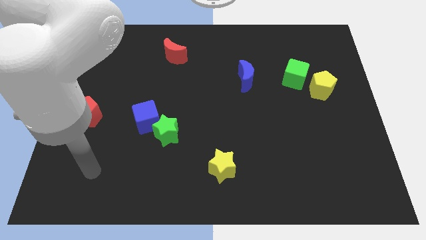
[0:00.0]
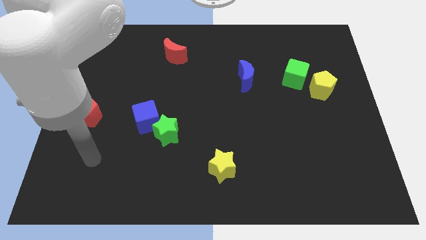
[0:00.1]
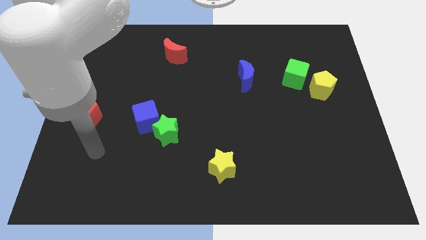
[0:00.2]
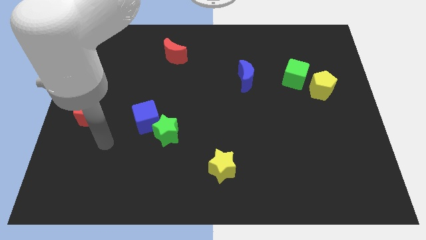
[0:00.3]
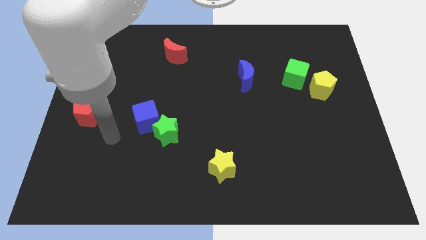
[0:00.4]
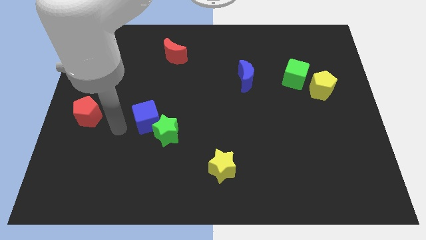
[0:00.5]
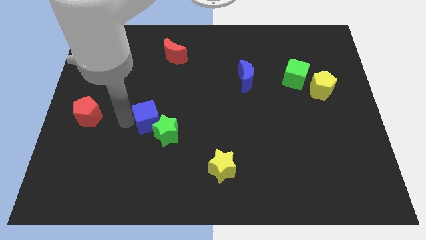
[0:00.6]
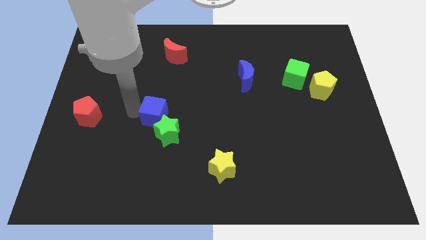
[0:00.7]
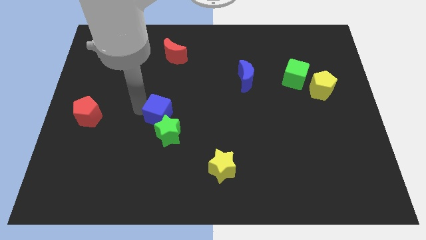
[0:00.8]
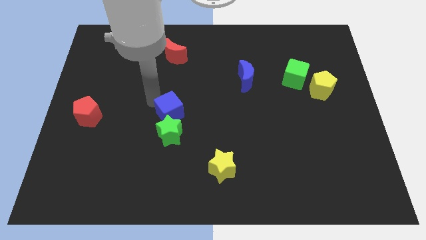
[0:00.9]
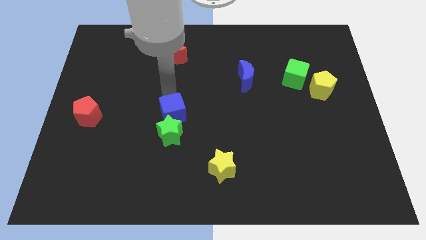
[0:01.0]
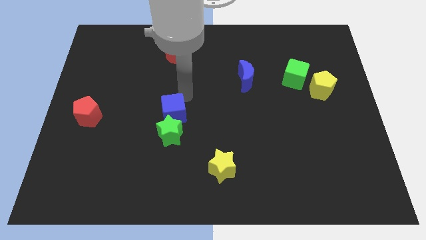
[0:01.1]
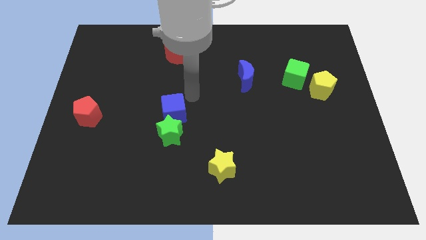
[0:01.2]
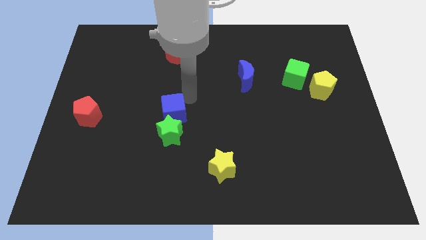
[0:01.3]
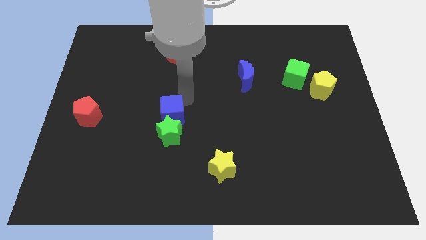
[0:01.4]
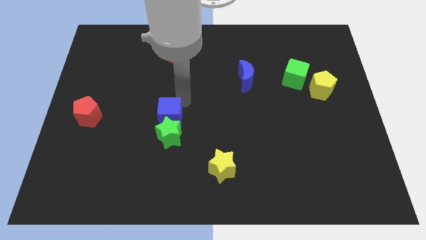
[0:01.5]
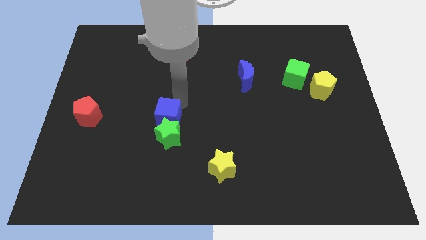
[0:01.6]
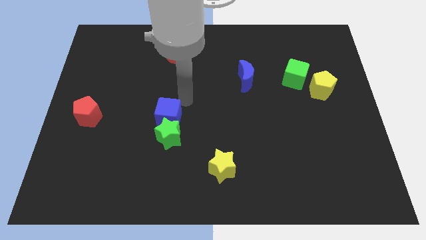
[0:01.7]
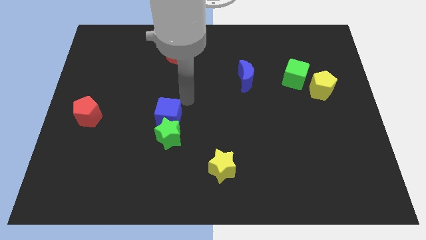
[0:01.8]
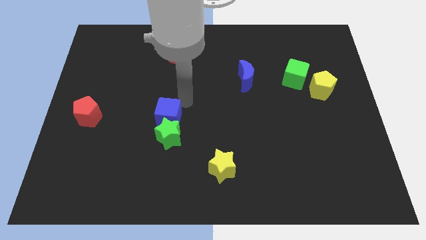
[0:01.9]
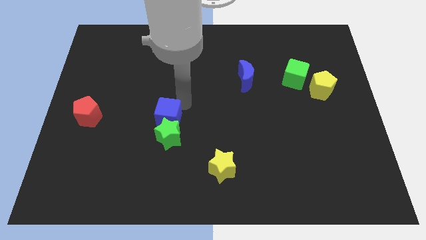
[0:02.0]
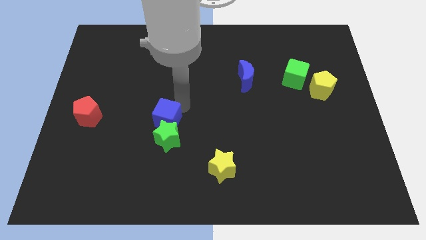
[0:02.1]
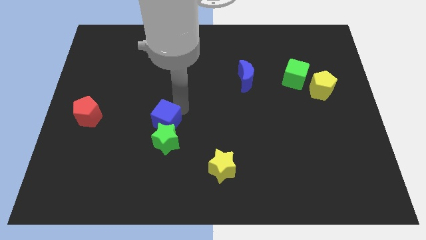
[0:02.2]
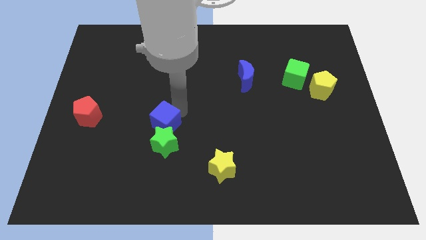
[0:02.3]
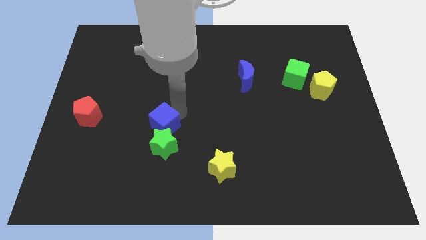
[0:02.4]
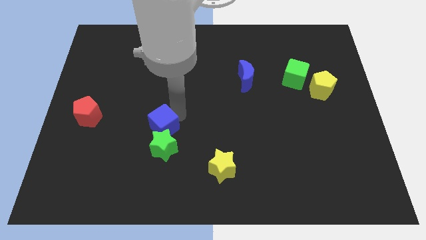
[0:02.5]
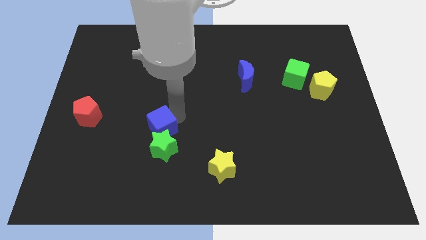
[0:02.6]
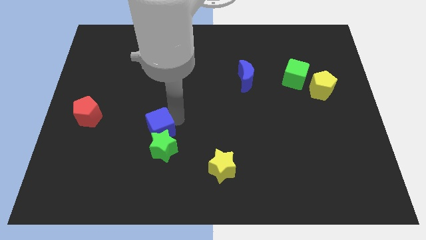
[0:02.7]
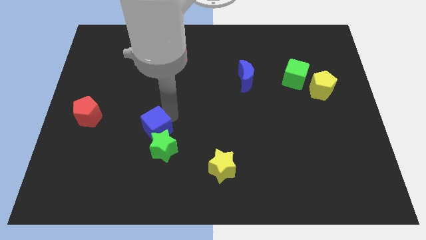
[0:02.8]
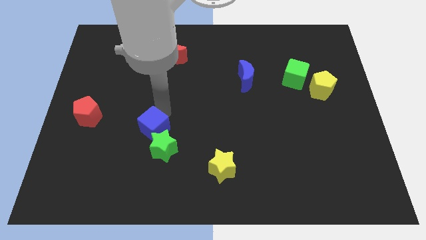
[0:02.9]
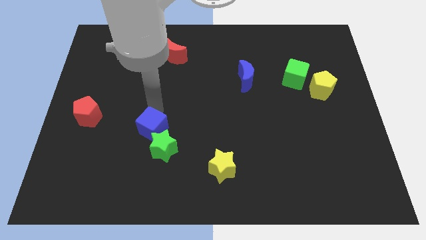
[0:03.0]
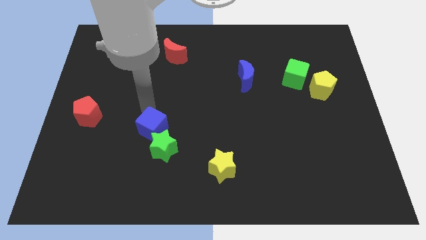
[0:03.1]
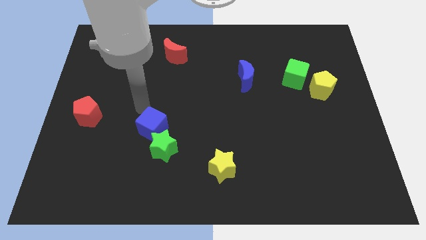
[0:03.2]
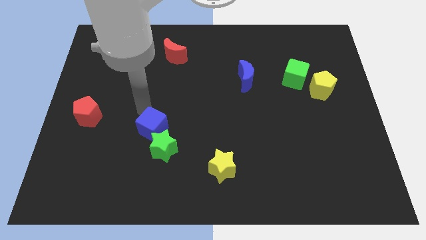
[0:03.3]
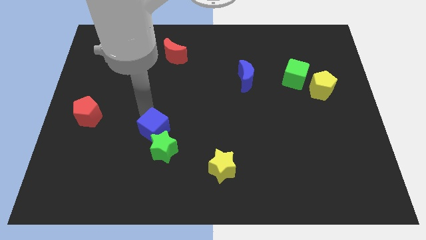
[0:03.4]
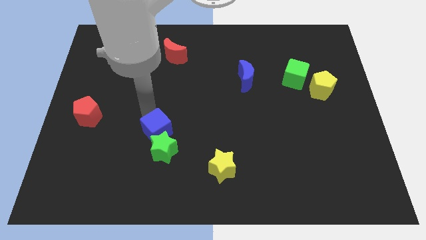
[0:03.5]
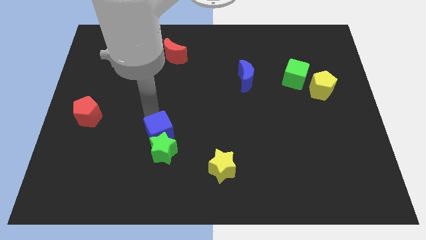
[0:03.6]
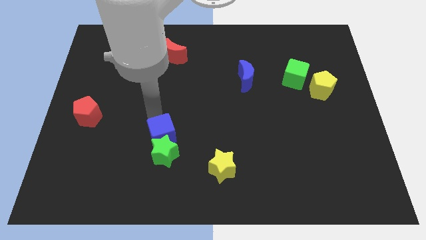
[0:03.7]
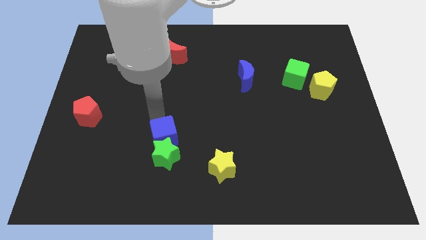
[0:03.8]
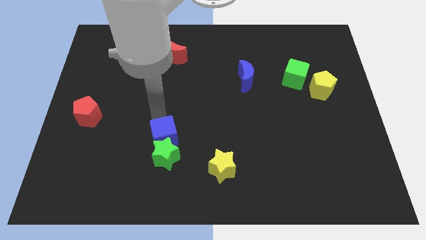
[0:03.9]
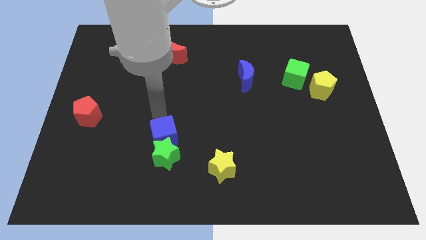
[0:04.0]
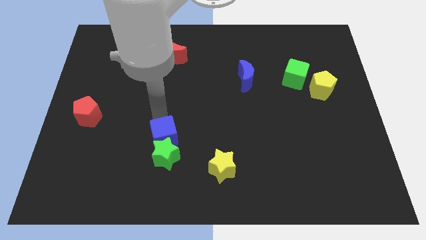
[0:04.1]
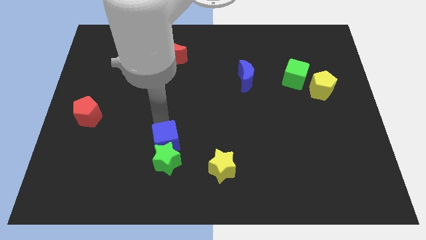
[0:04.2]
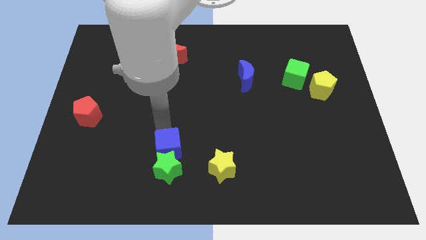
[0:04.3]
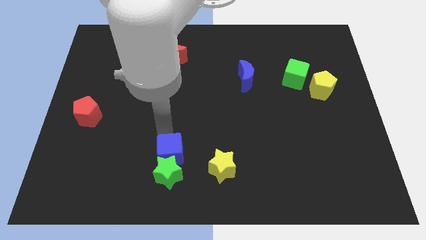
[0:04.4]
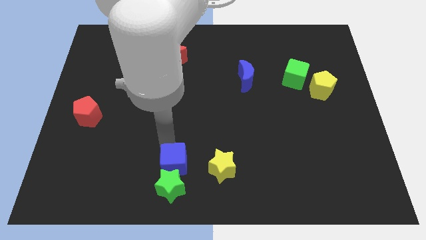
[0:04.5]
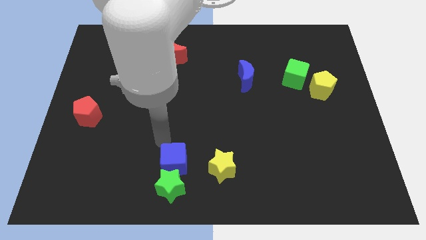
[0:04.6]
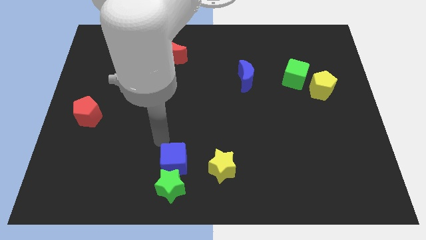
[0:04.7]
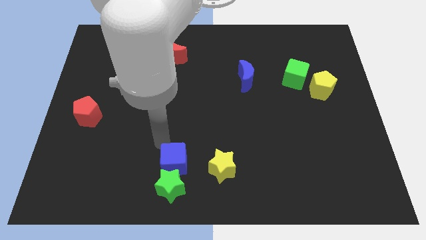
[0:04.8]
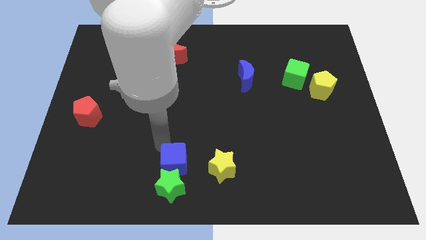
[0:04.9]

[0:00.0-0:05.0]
put the blue cube to the bottom

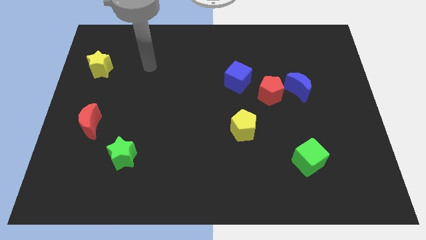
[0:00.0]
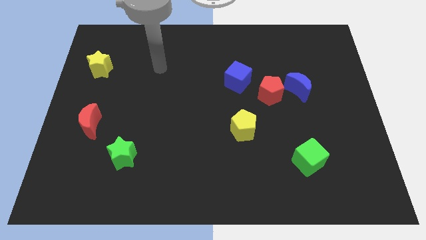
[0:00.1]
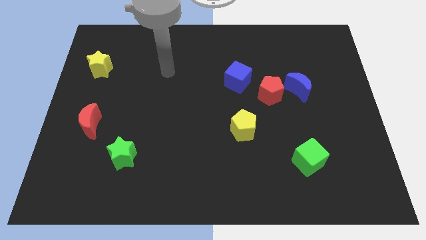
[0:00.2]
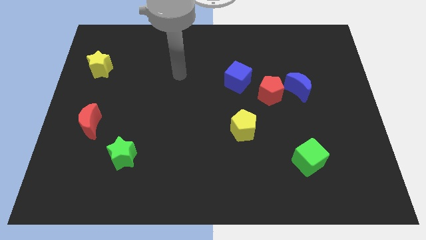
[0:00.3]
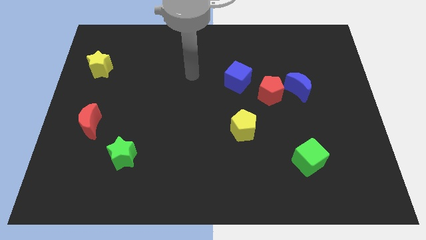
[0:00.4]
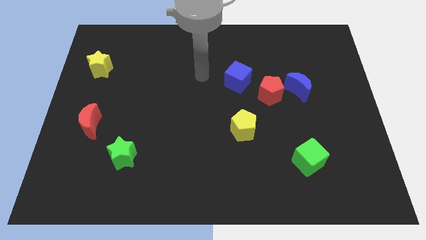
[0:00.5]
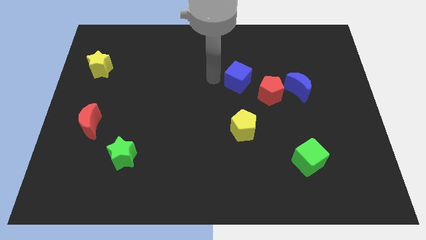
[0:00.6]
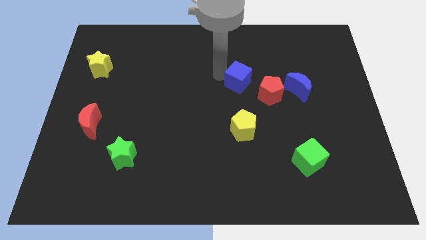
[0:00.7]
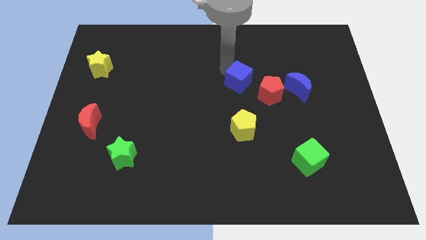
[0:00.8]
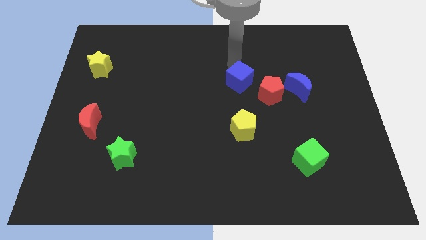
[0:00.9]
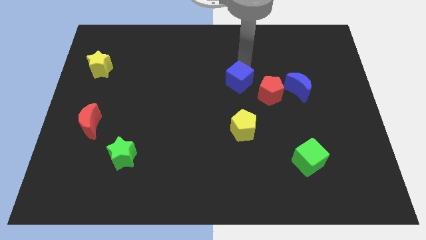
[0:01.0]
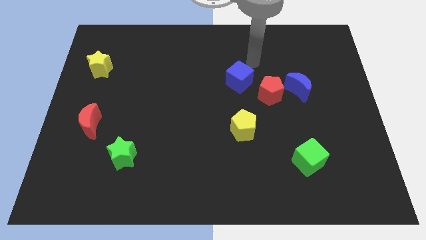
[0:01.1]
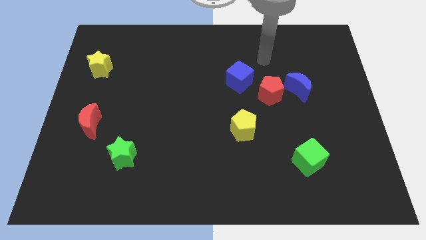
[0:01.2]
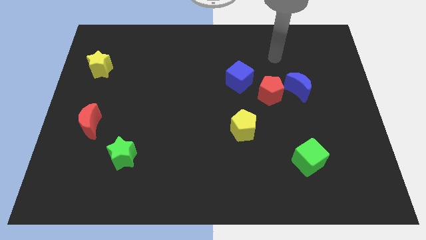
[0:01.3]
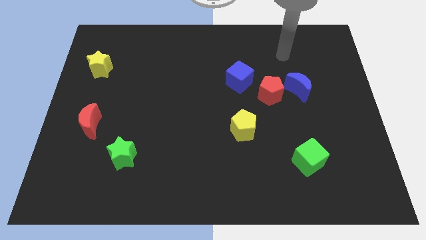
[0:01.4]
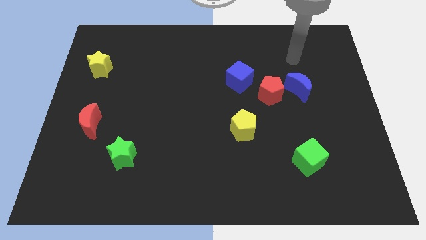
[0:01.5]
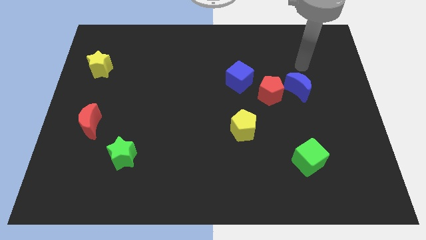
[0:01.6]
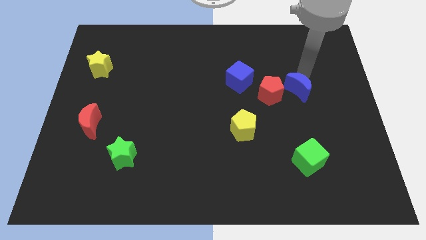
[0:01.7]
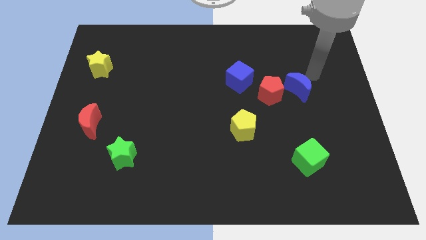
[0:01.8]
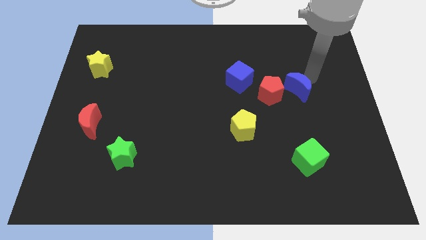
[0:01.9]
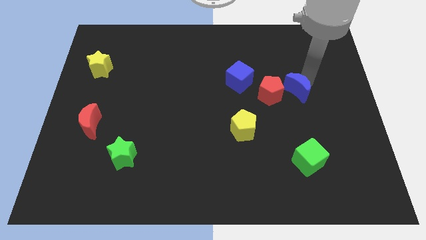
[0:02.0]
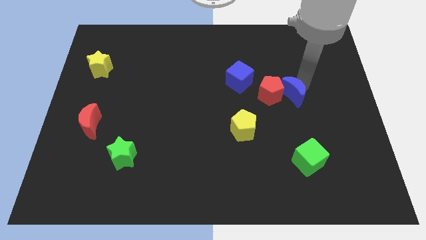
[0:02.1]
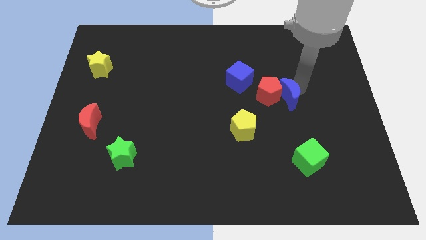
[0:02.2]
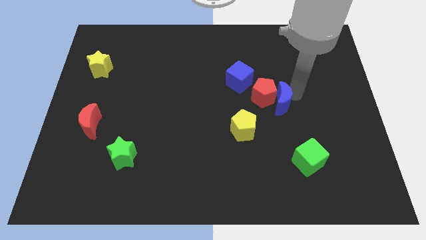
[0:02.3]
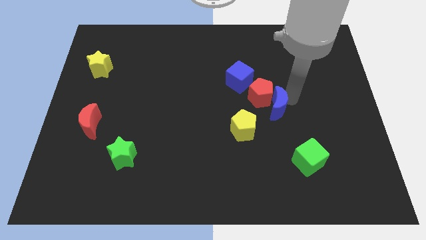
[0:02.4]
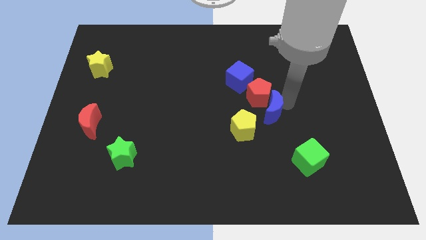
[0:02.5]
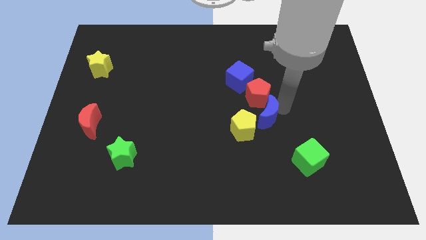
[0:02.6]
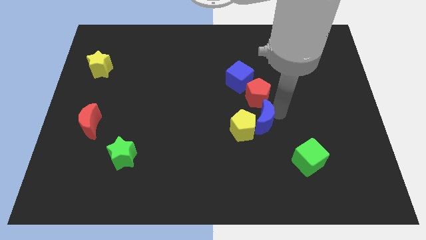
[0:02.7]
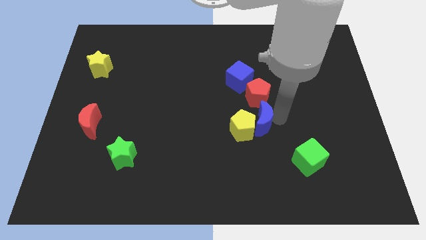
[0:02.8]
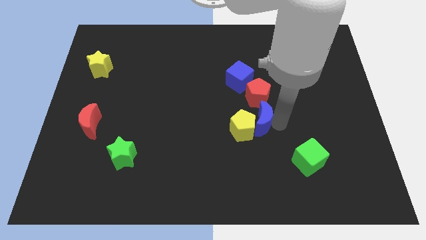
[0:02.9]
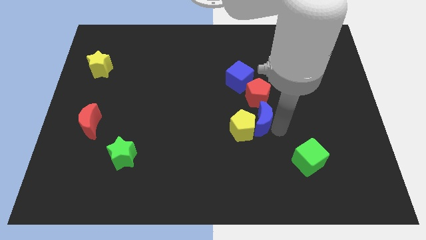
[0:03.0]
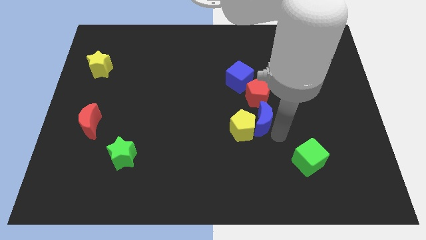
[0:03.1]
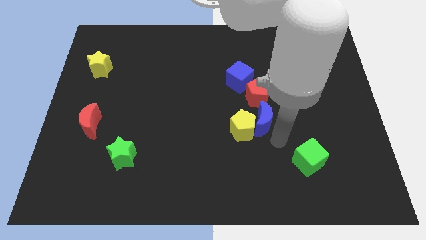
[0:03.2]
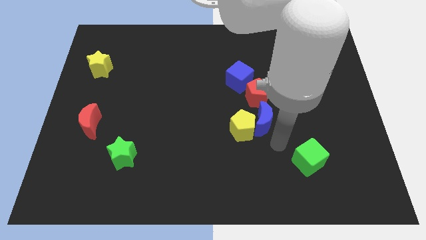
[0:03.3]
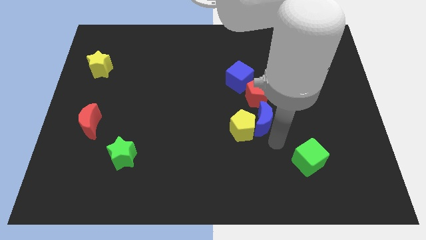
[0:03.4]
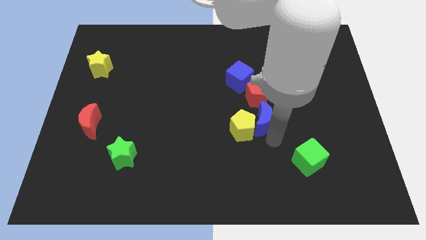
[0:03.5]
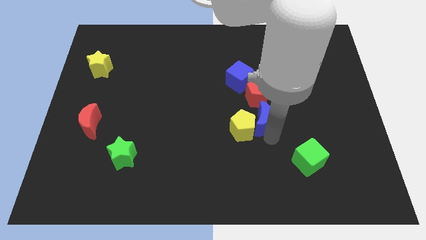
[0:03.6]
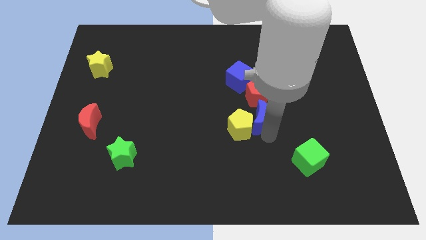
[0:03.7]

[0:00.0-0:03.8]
move the blue moon to the center of the board
